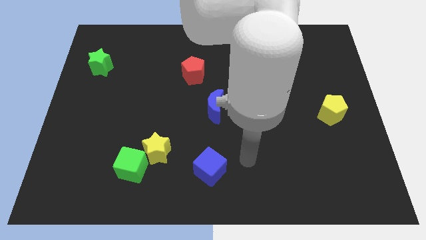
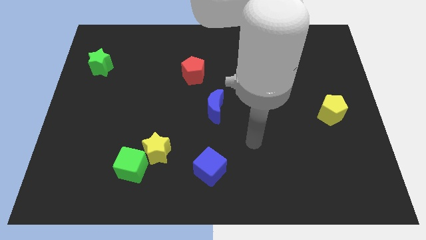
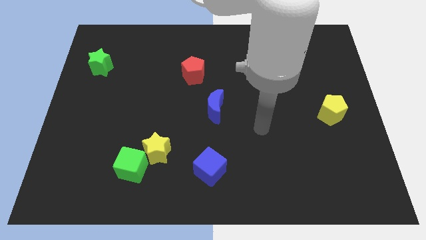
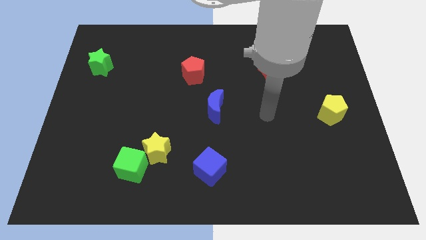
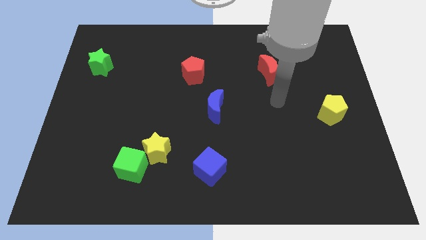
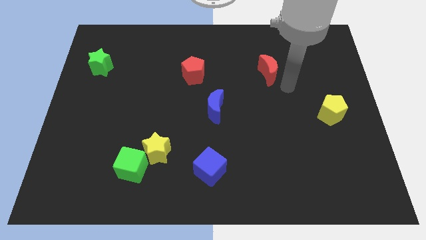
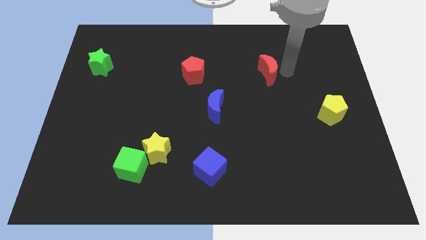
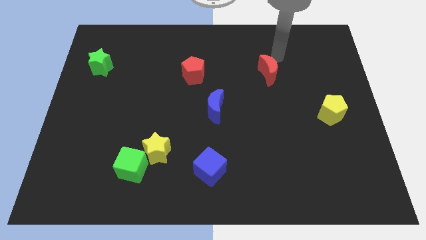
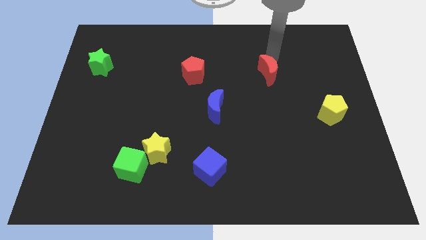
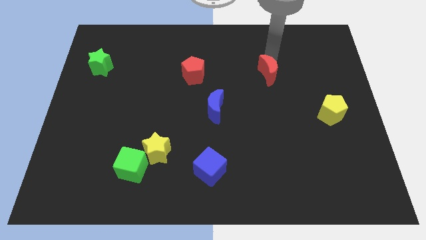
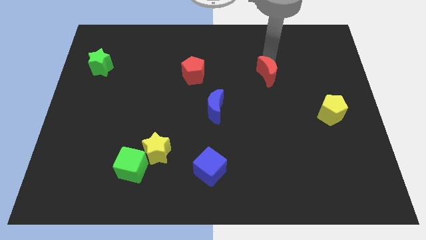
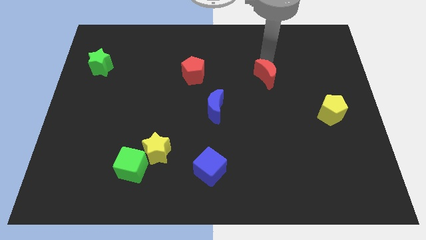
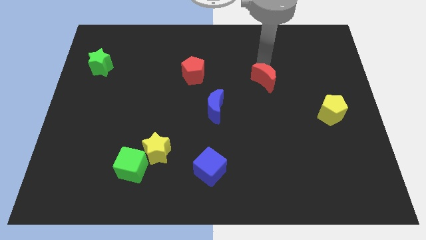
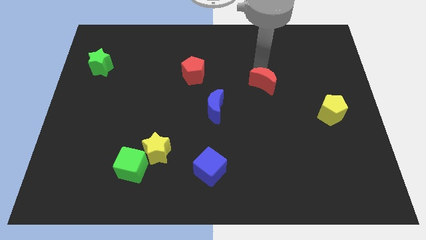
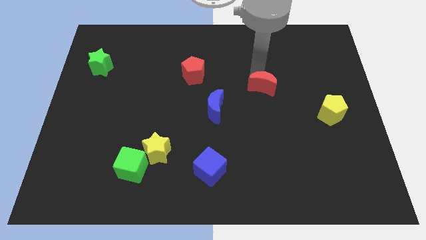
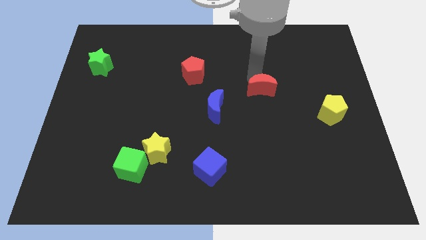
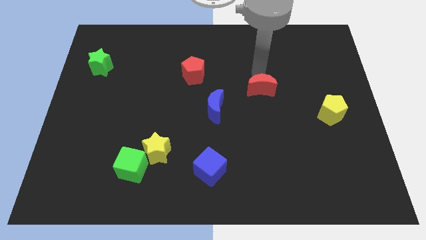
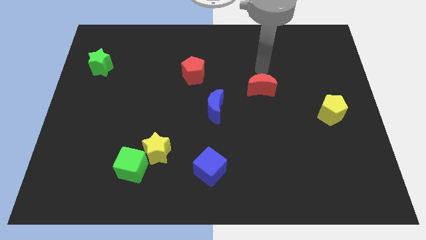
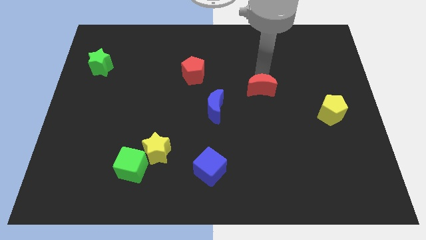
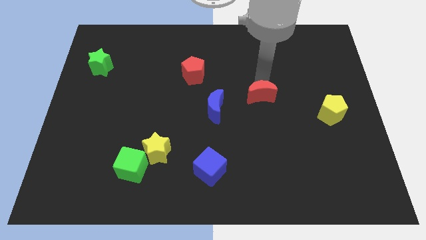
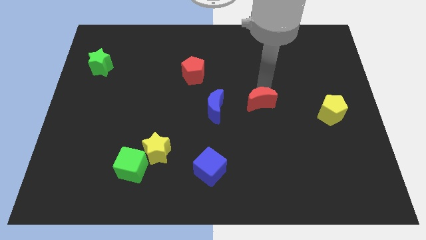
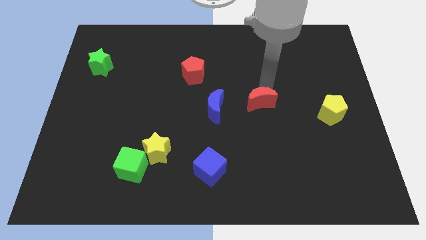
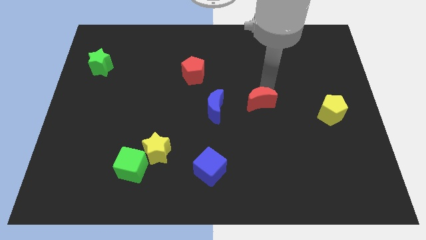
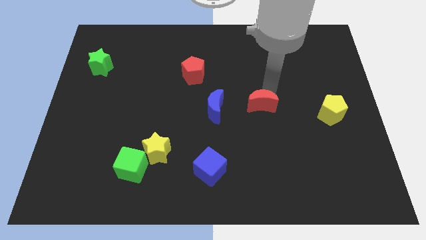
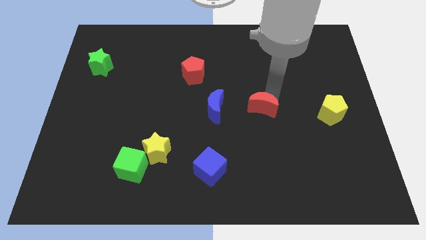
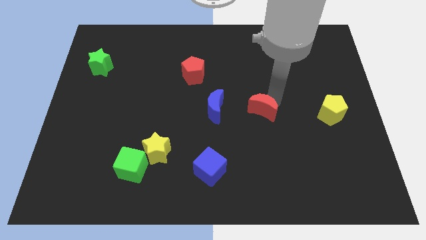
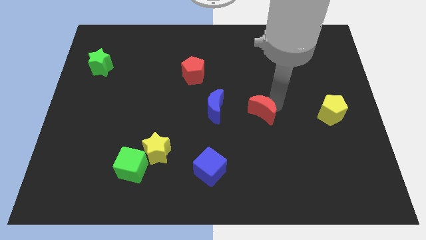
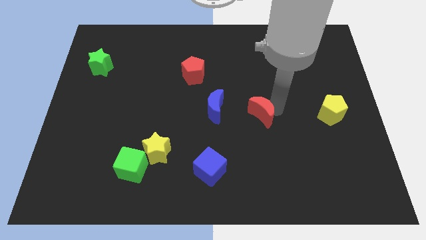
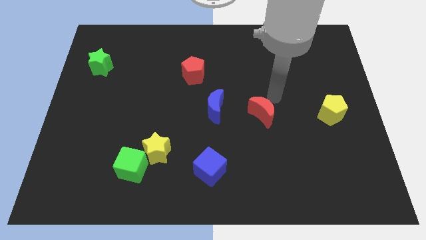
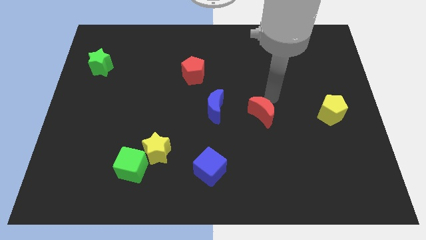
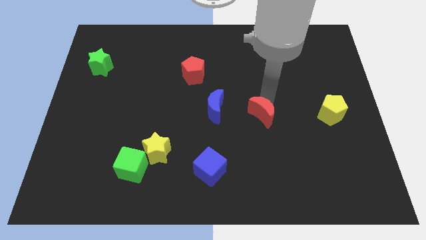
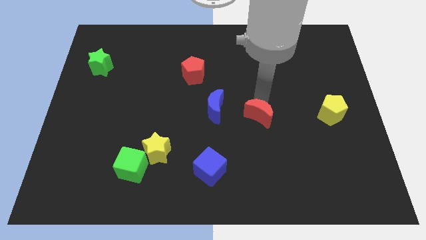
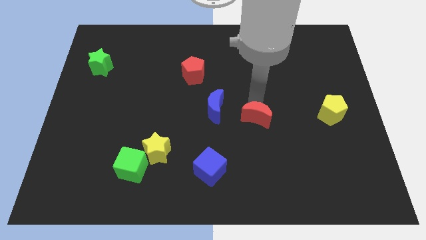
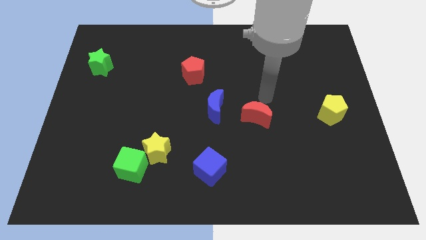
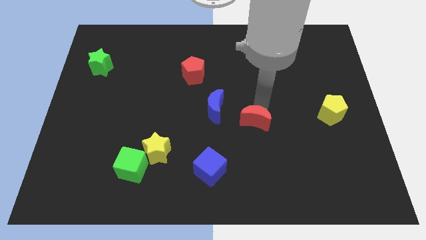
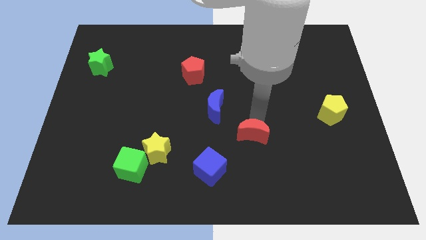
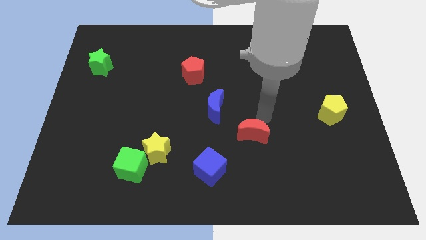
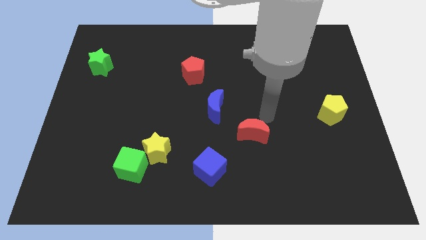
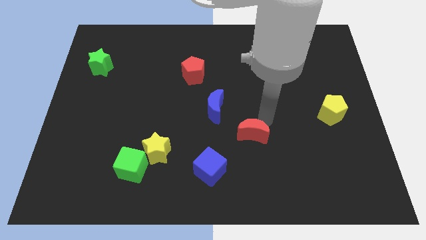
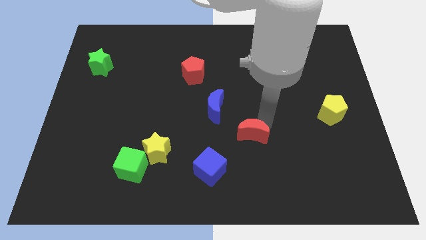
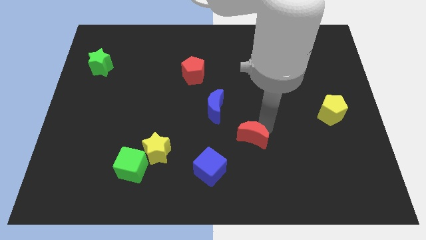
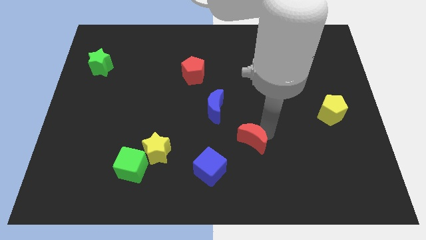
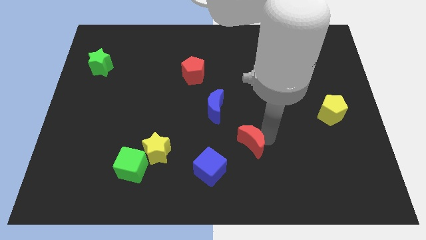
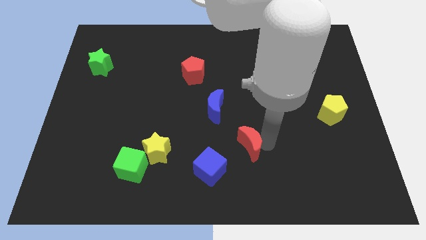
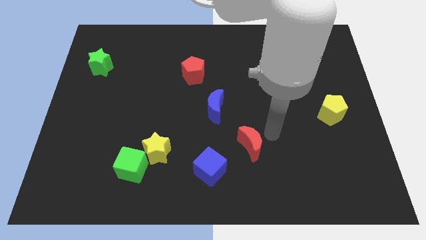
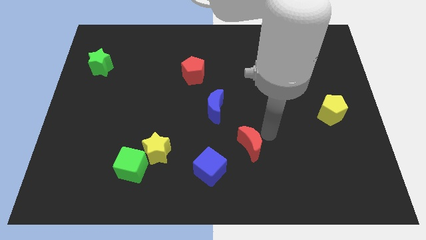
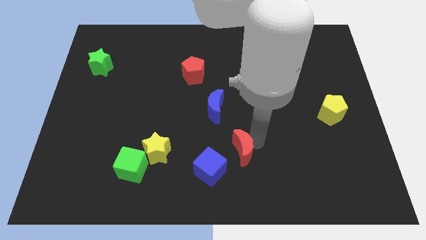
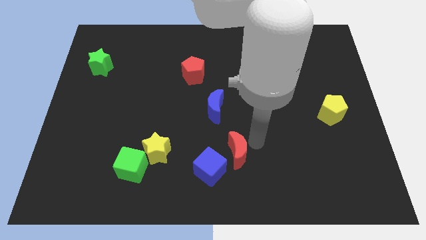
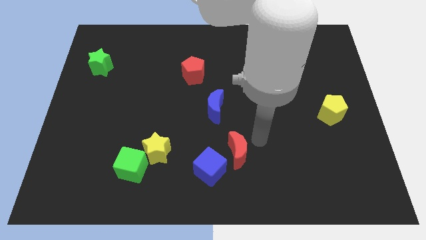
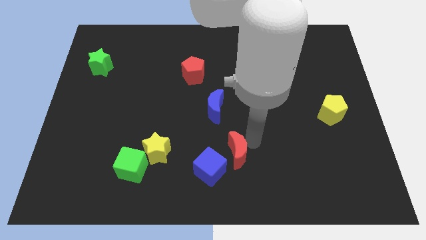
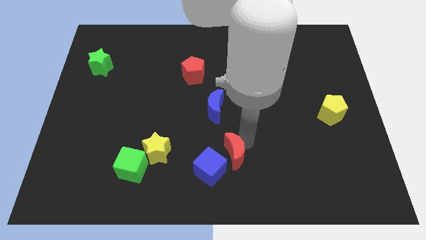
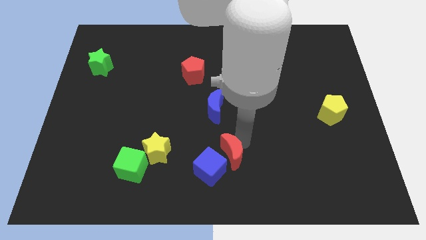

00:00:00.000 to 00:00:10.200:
move the red moon towards the blue cube

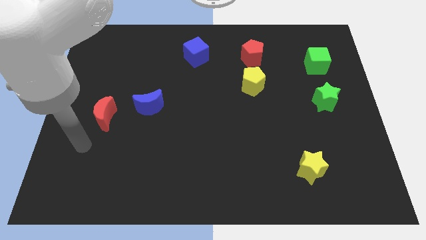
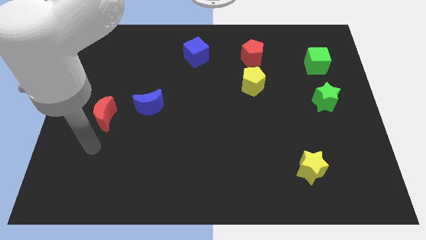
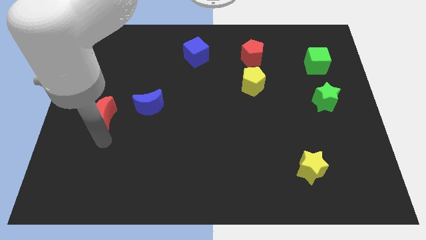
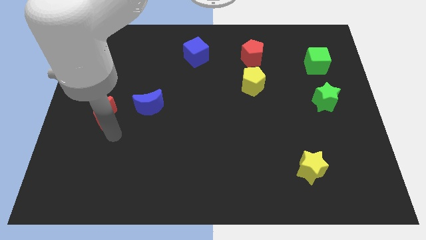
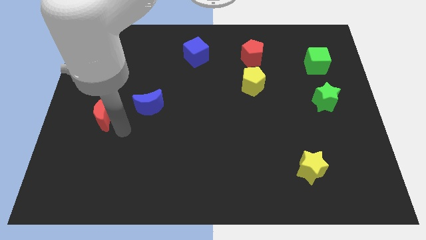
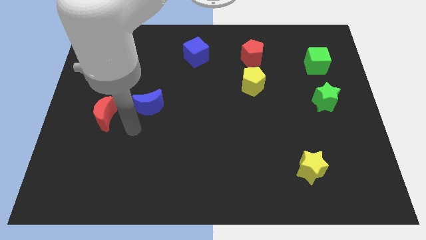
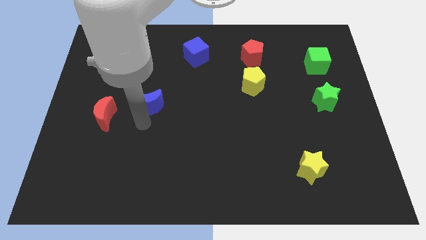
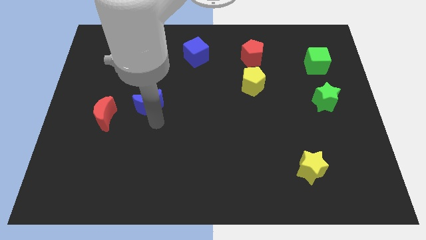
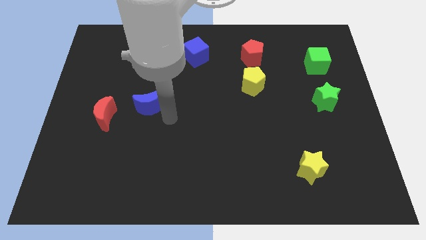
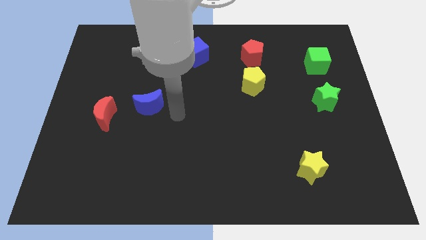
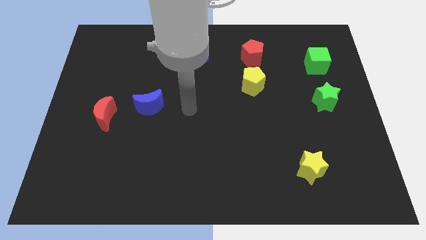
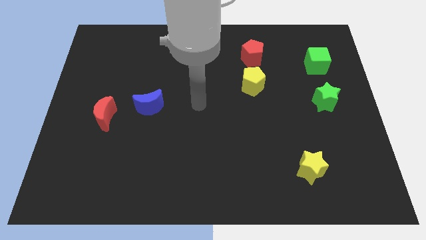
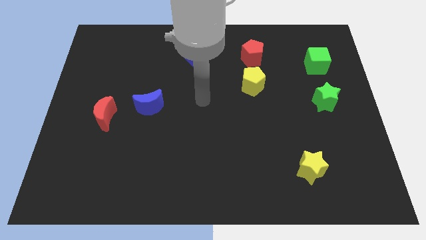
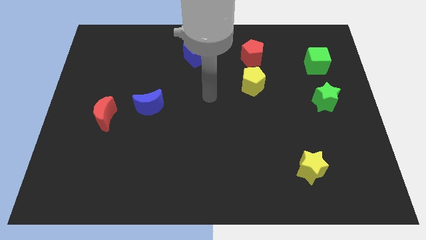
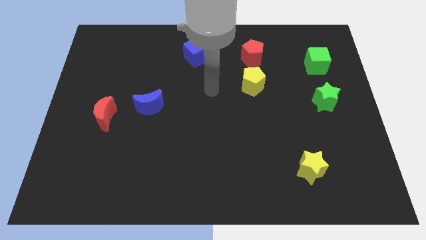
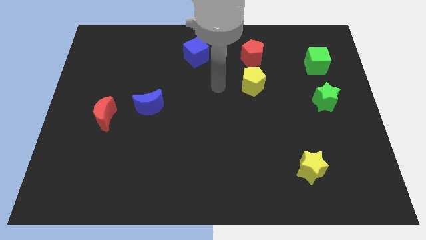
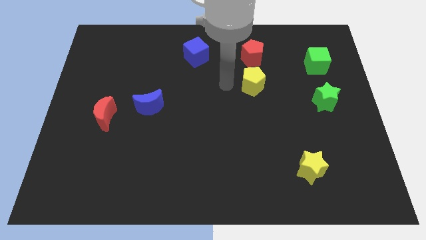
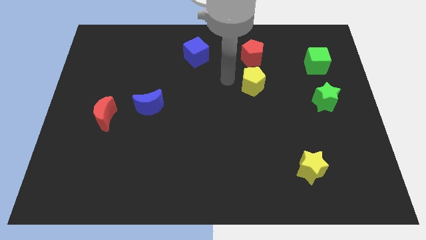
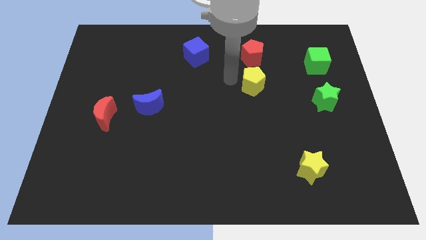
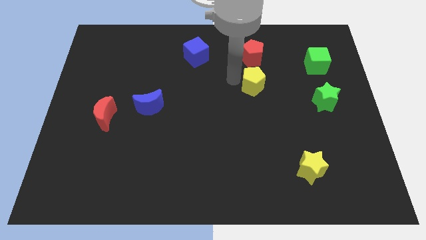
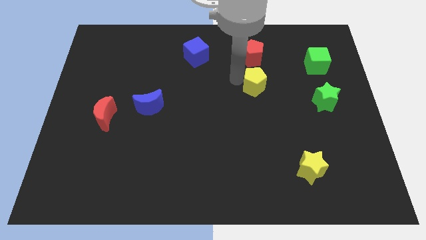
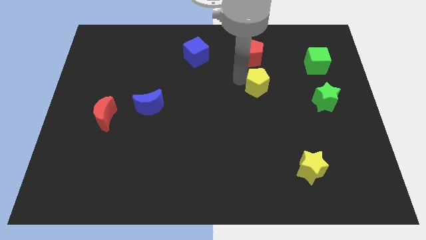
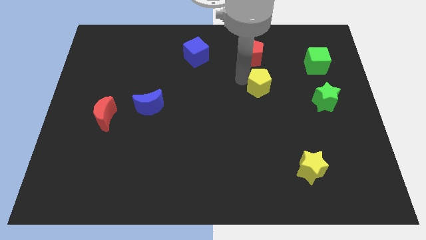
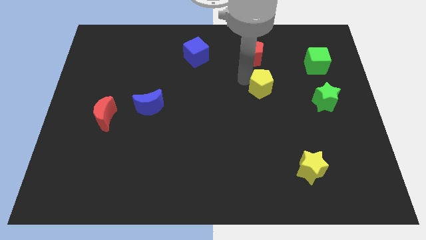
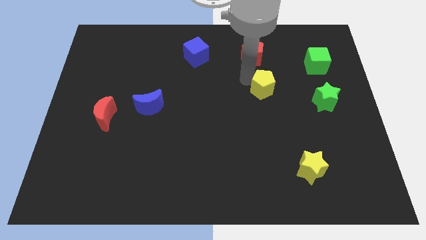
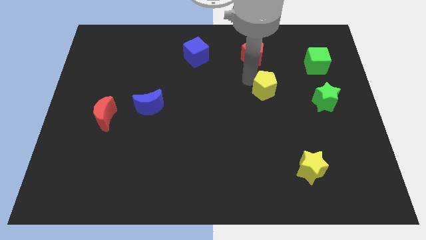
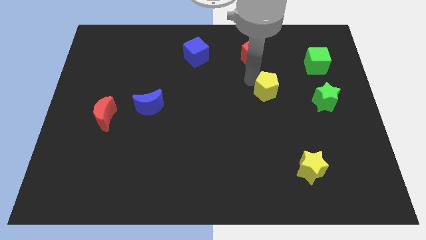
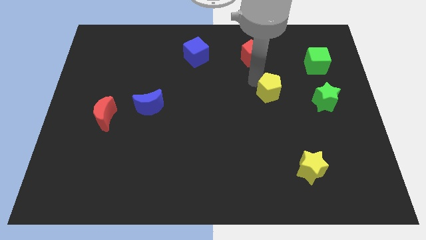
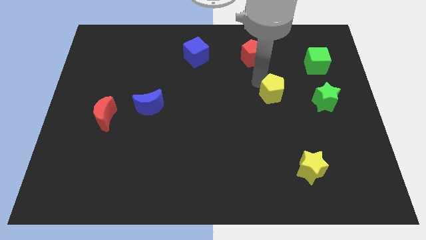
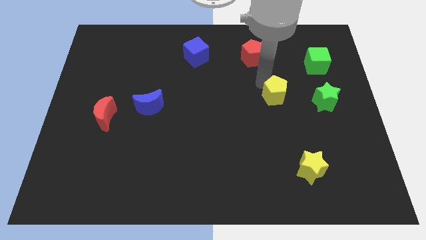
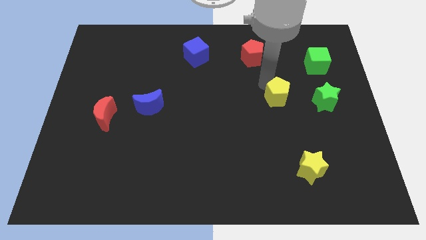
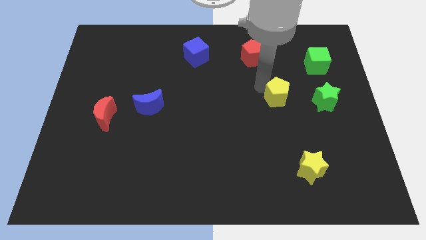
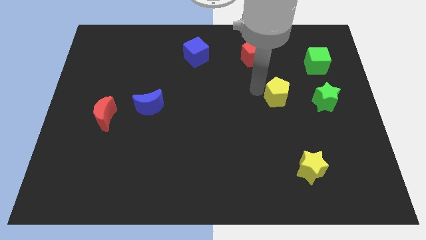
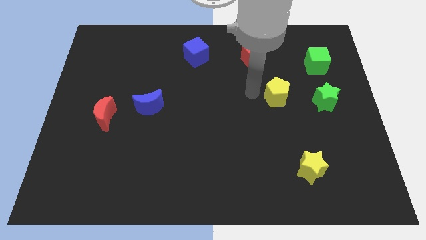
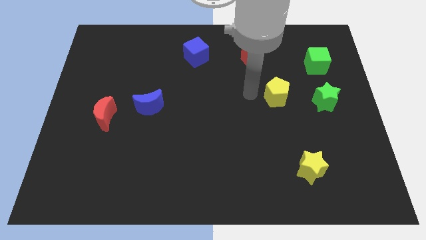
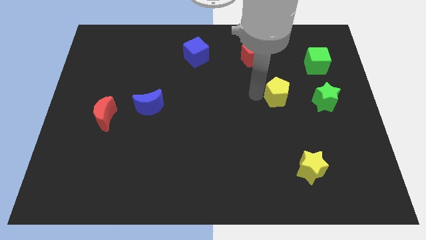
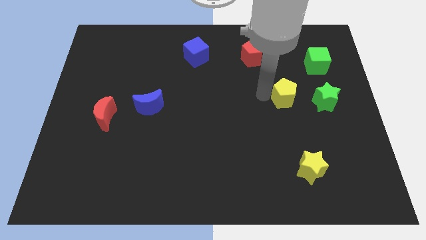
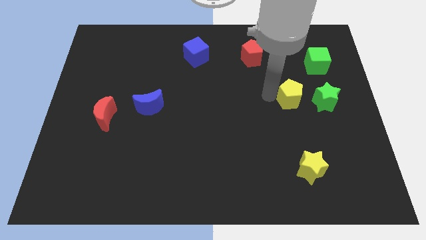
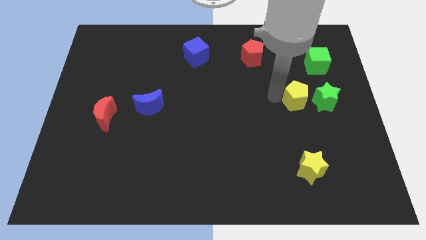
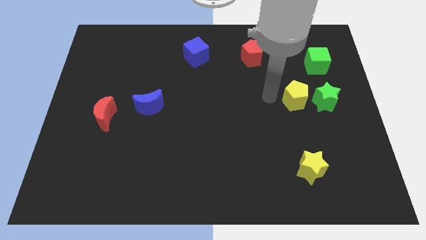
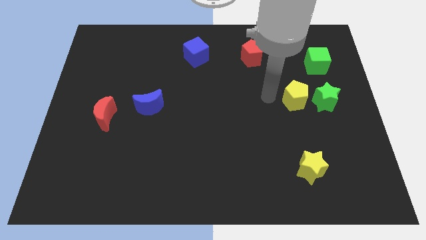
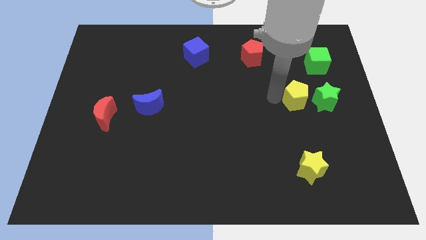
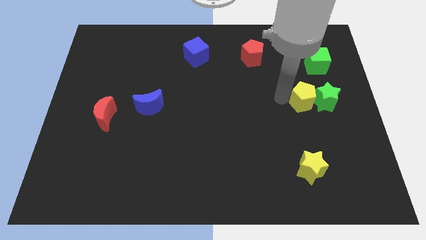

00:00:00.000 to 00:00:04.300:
push the yellow pentagon towards the green star
